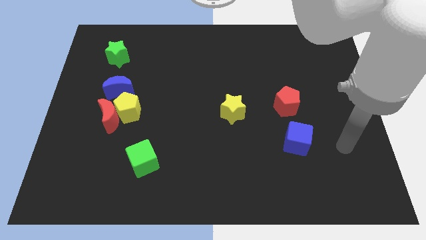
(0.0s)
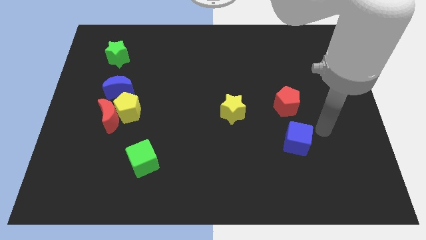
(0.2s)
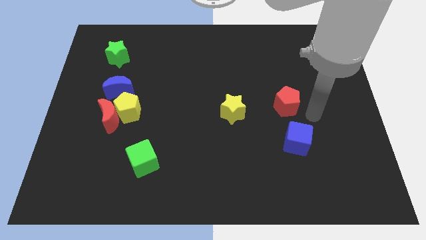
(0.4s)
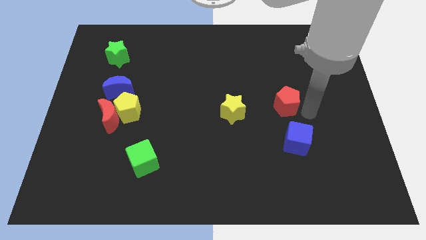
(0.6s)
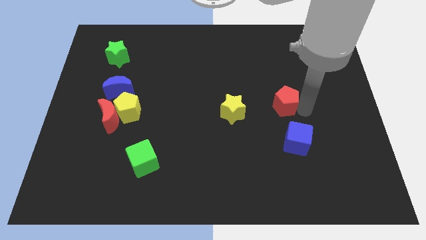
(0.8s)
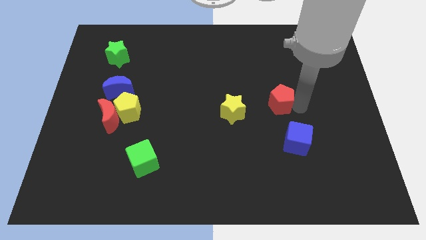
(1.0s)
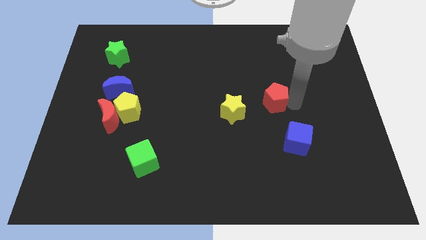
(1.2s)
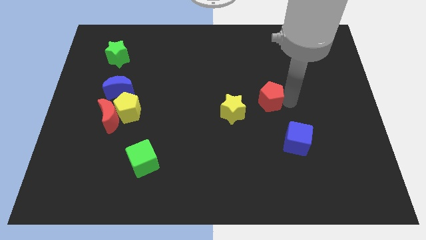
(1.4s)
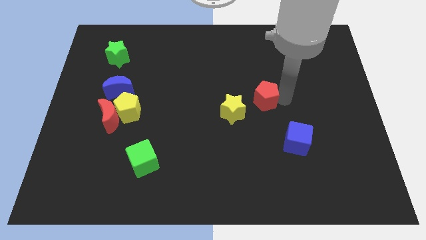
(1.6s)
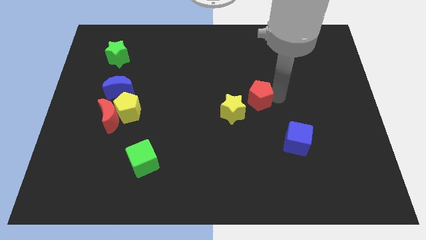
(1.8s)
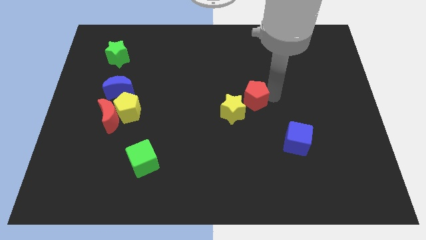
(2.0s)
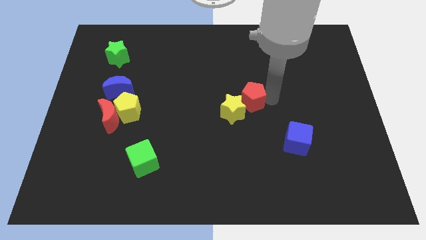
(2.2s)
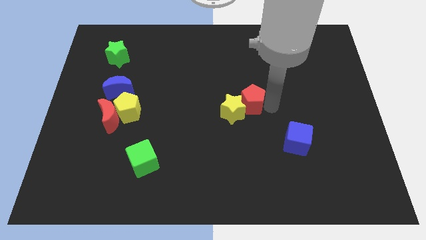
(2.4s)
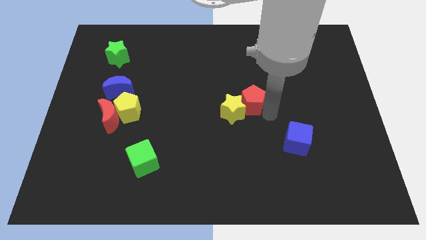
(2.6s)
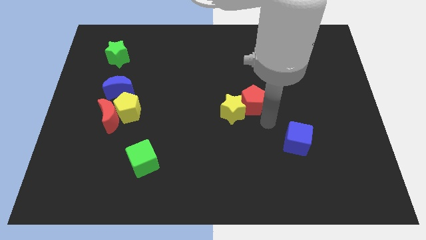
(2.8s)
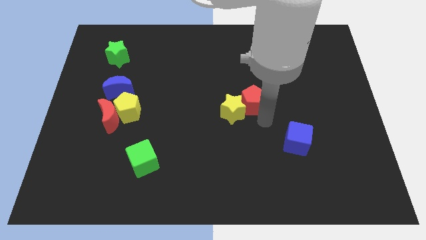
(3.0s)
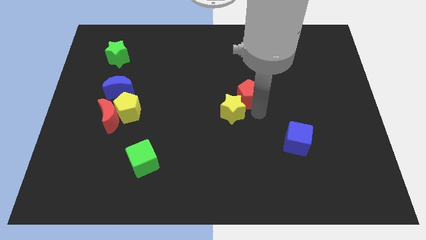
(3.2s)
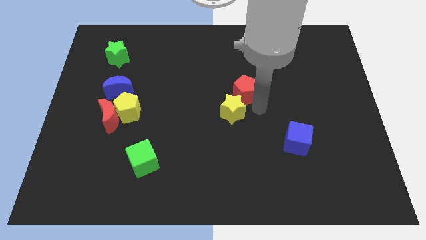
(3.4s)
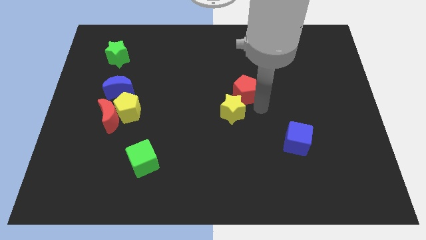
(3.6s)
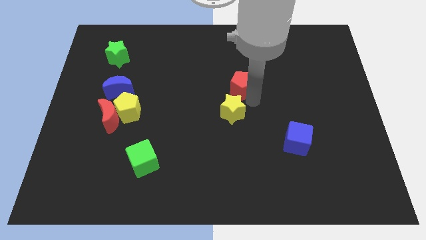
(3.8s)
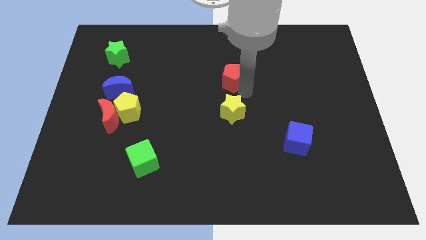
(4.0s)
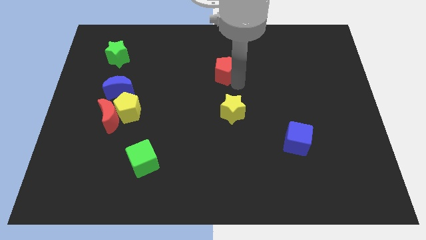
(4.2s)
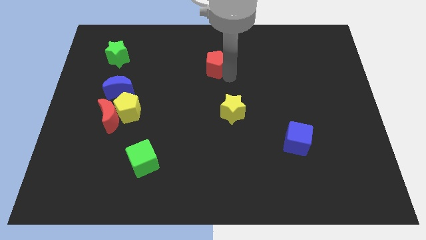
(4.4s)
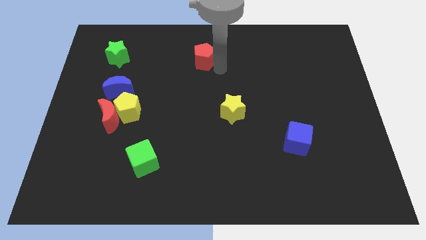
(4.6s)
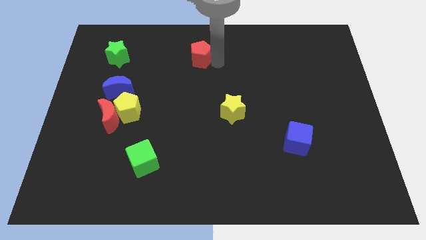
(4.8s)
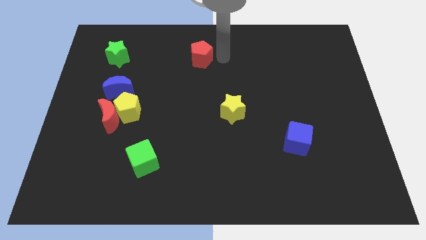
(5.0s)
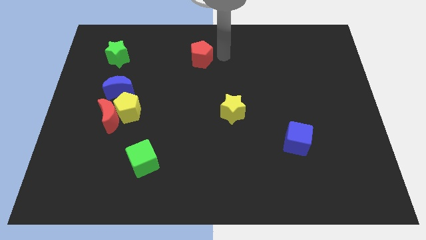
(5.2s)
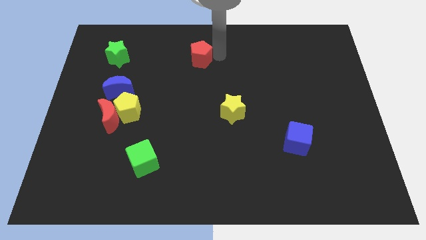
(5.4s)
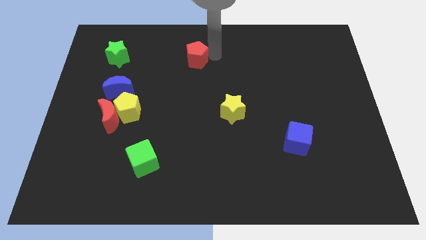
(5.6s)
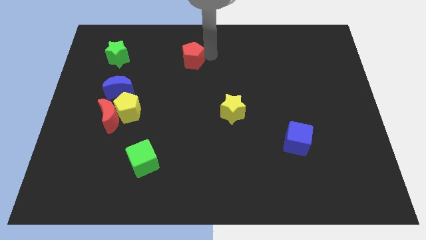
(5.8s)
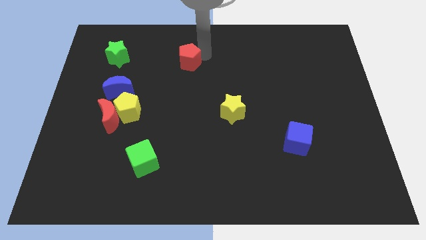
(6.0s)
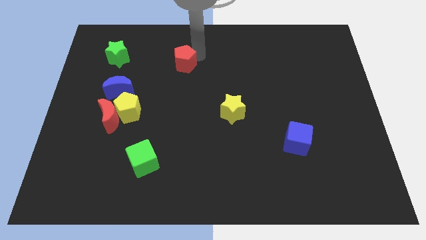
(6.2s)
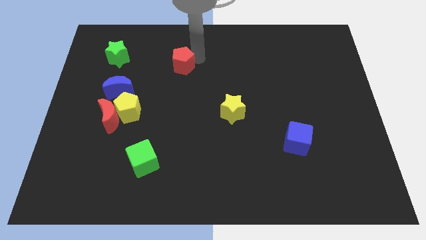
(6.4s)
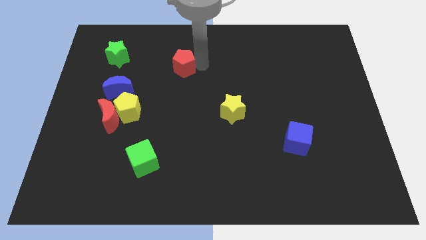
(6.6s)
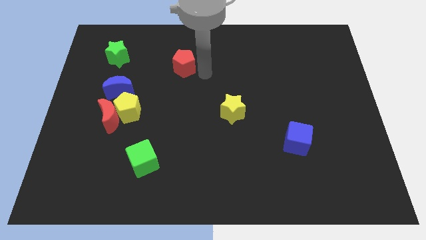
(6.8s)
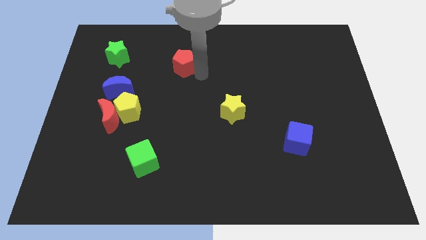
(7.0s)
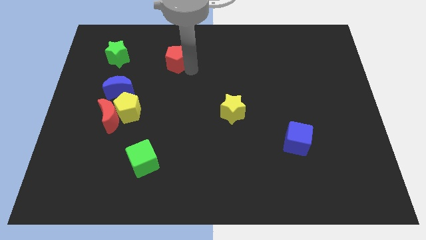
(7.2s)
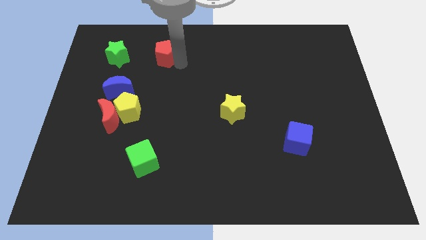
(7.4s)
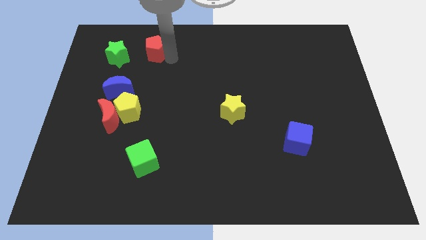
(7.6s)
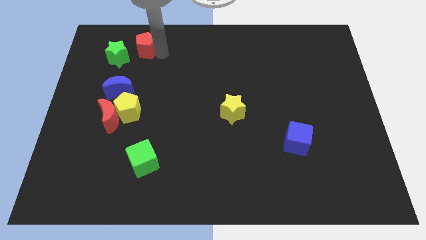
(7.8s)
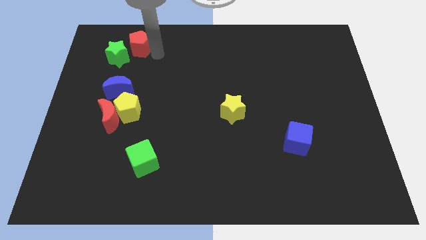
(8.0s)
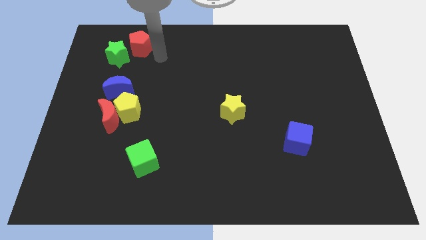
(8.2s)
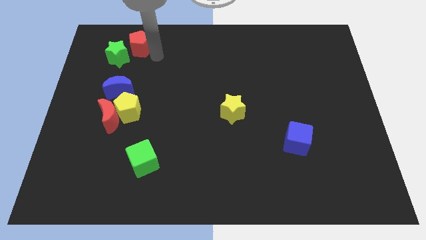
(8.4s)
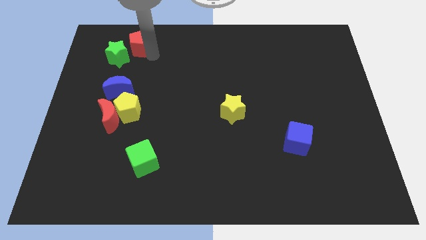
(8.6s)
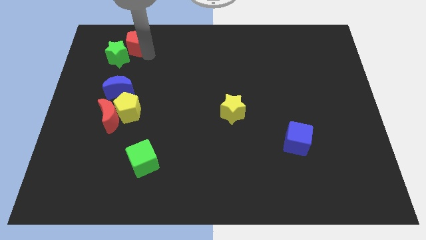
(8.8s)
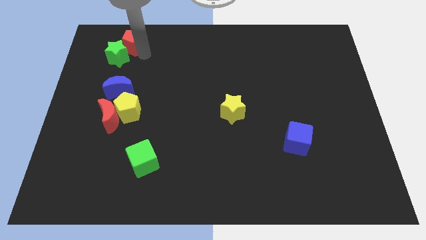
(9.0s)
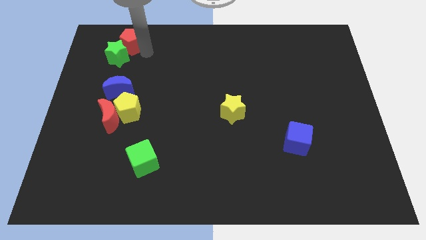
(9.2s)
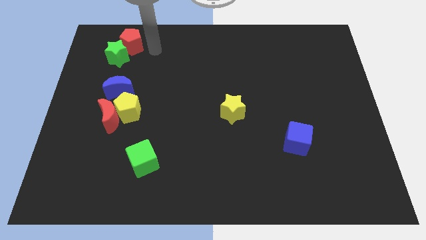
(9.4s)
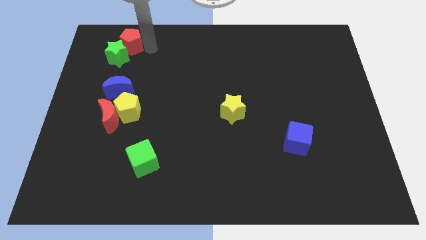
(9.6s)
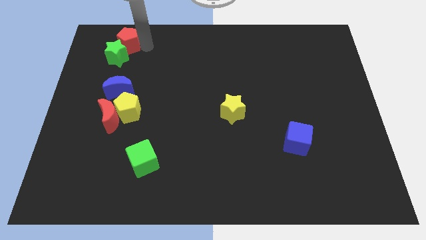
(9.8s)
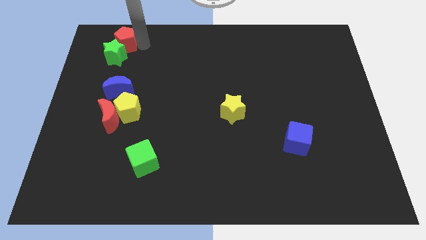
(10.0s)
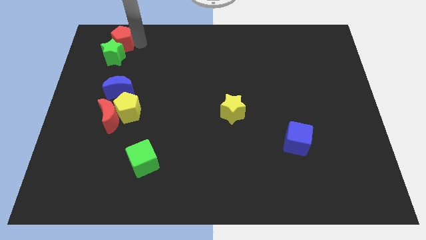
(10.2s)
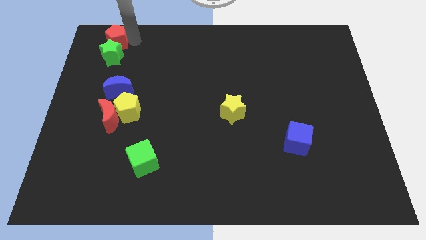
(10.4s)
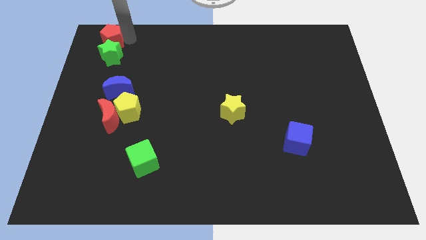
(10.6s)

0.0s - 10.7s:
slide the red pentagon to the top left corner

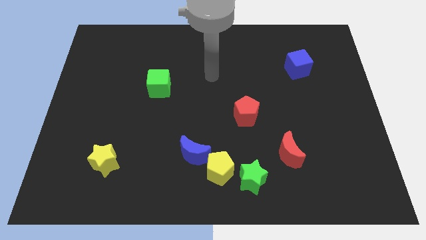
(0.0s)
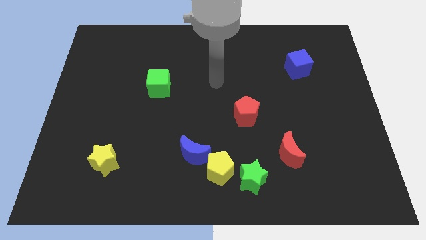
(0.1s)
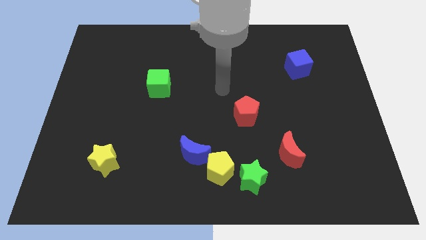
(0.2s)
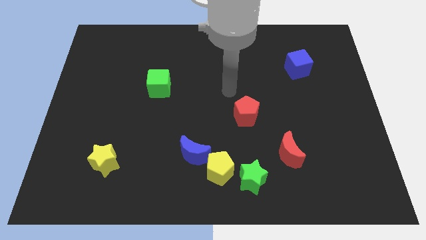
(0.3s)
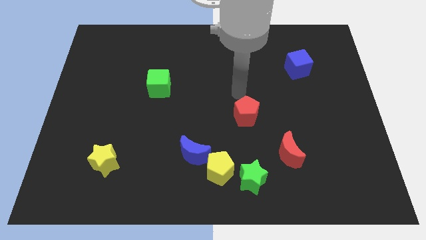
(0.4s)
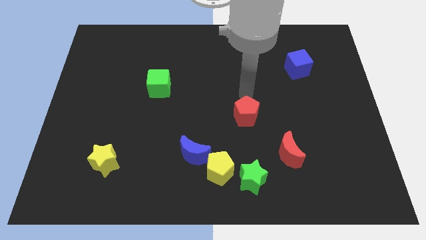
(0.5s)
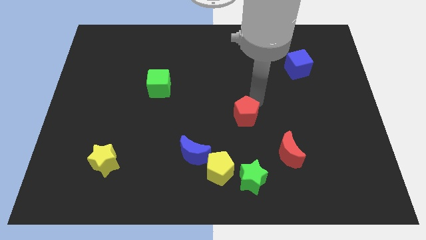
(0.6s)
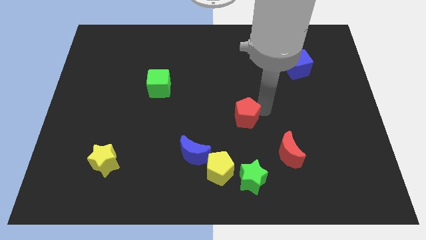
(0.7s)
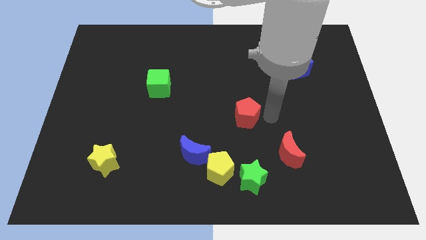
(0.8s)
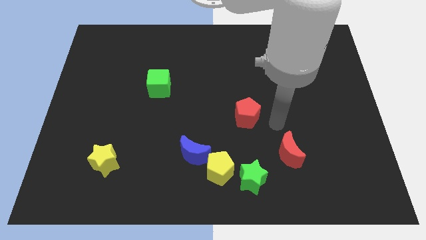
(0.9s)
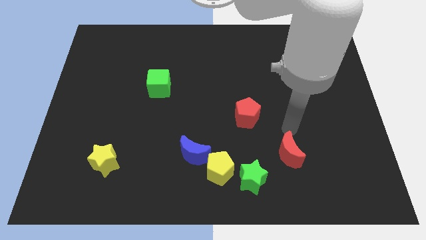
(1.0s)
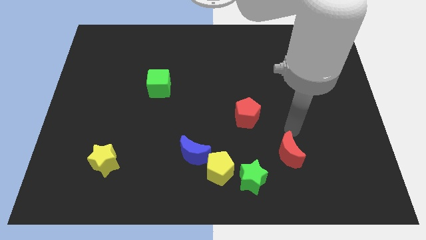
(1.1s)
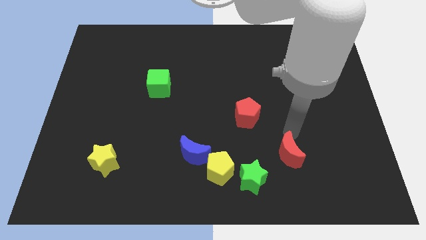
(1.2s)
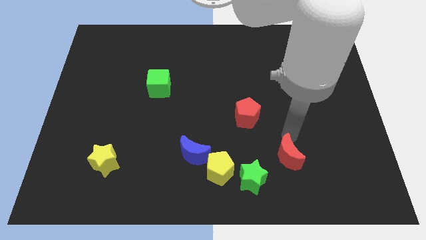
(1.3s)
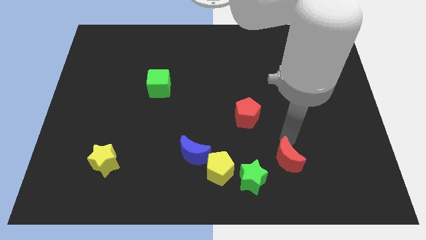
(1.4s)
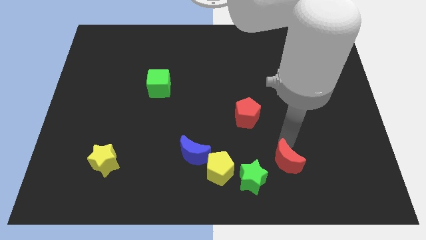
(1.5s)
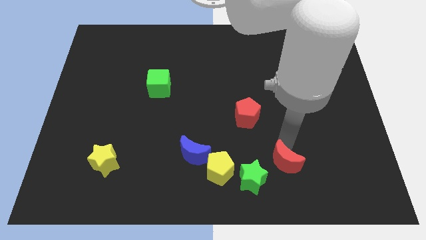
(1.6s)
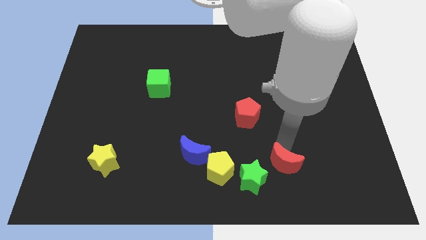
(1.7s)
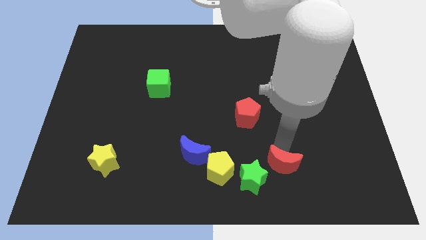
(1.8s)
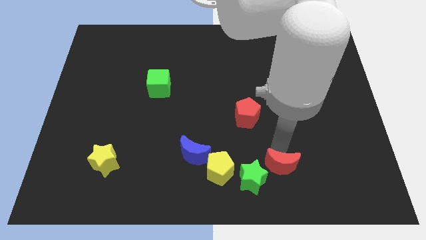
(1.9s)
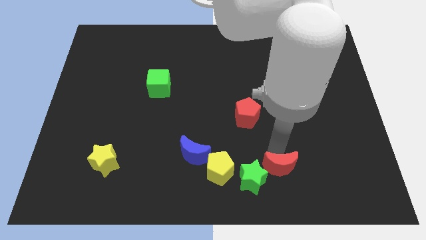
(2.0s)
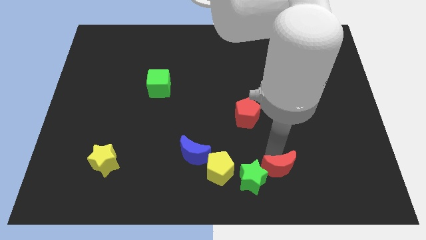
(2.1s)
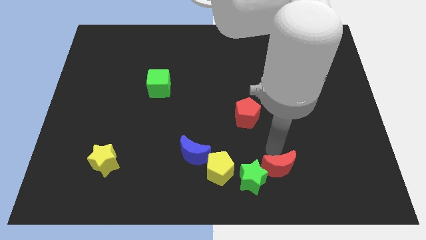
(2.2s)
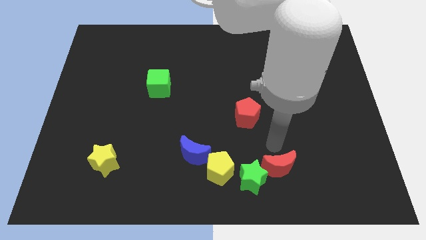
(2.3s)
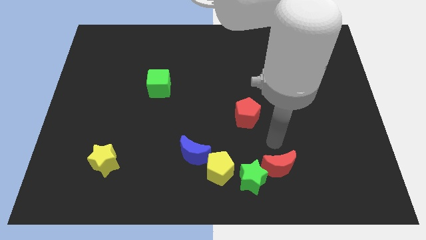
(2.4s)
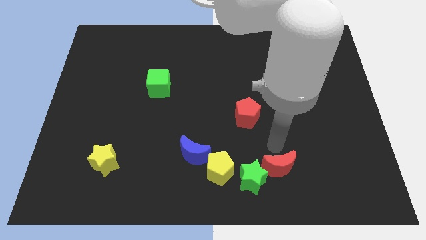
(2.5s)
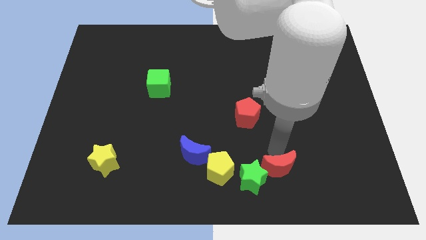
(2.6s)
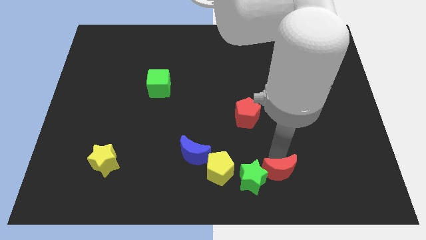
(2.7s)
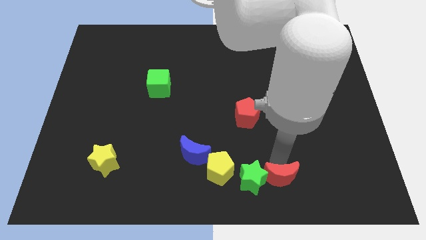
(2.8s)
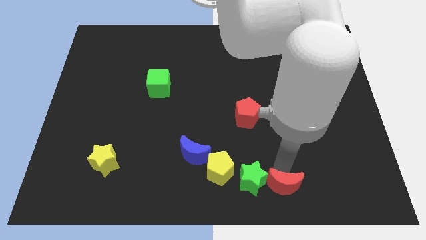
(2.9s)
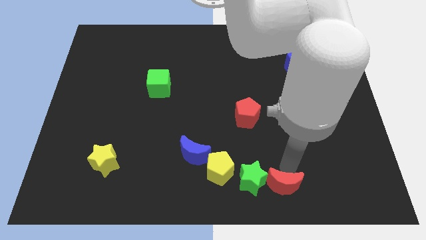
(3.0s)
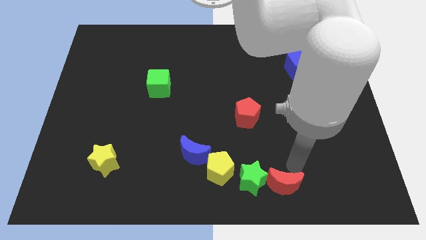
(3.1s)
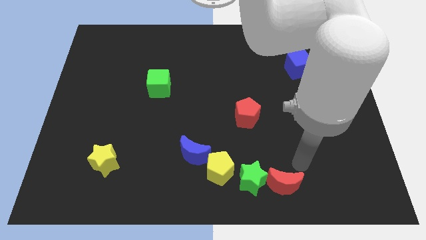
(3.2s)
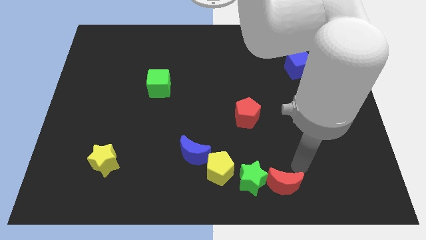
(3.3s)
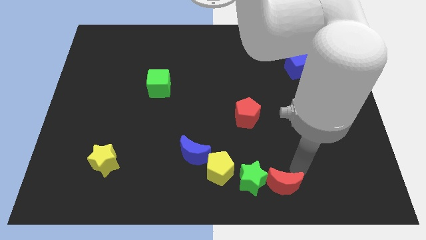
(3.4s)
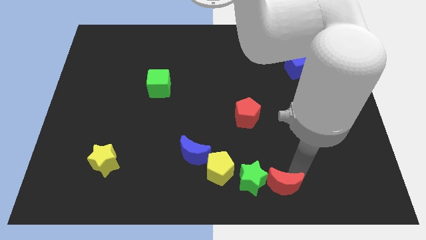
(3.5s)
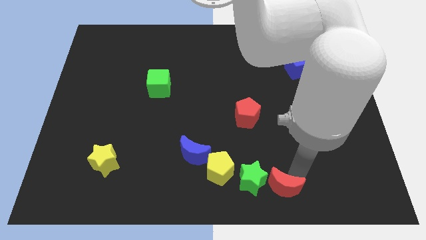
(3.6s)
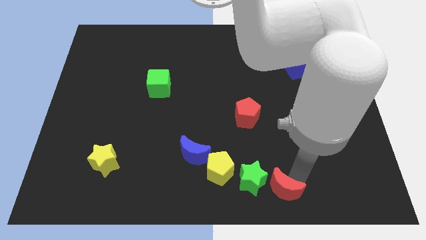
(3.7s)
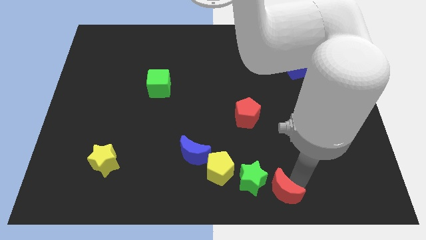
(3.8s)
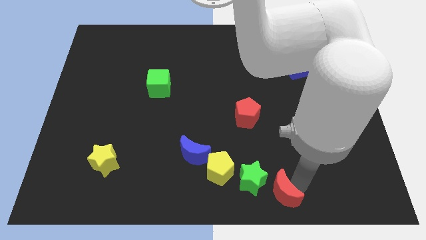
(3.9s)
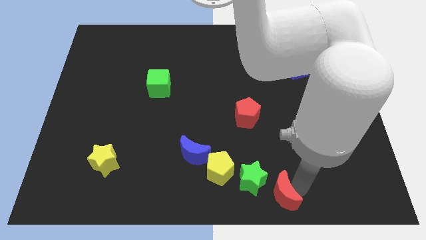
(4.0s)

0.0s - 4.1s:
push the red moon to the bottom side
